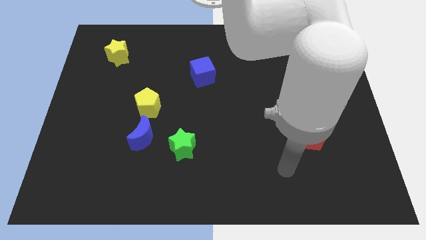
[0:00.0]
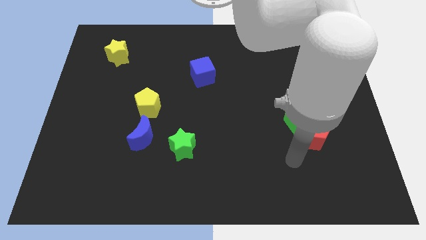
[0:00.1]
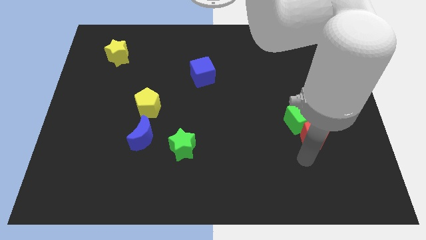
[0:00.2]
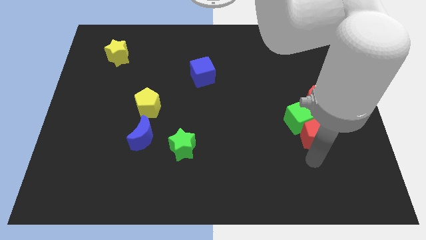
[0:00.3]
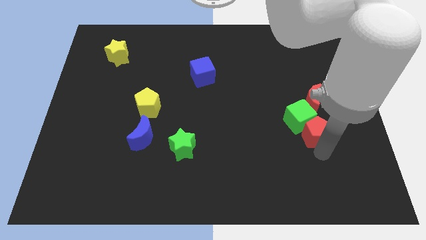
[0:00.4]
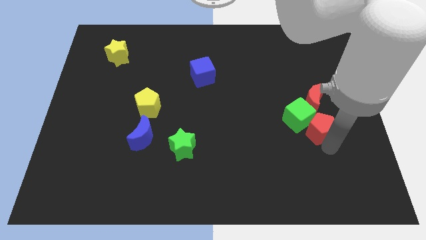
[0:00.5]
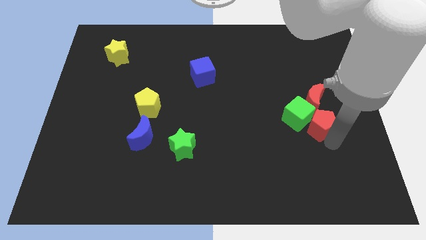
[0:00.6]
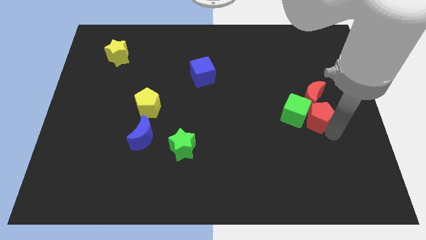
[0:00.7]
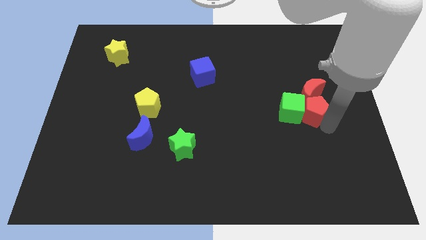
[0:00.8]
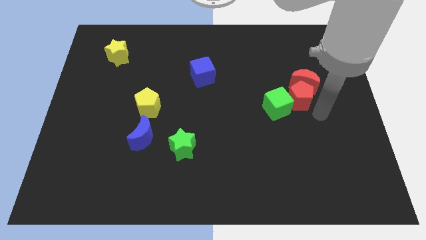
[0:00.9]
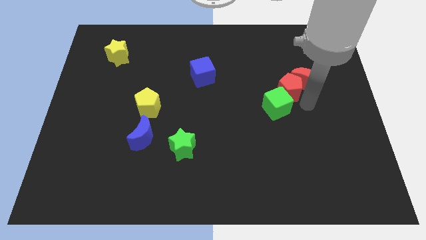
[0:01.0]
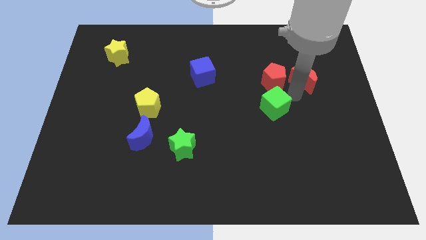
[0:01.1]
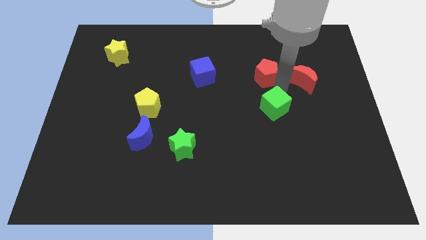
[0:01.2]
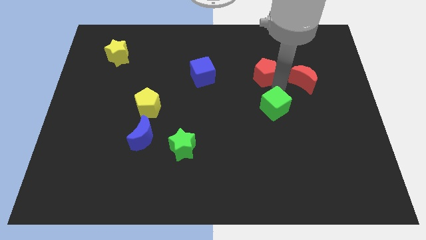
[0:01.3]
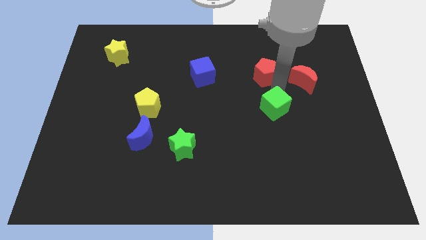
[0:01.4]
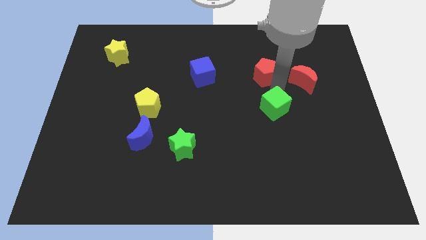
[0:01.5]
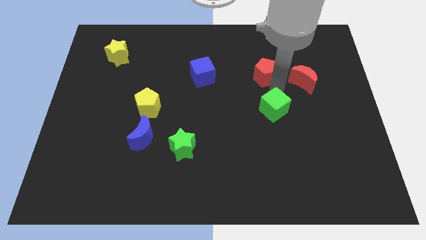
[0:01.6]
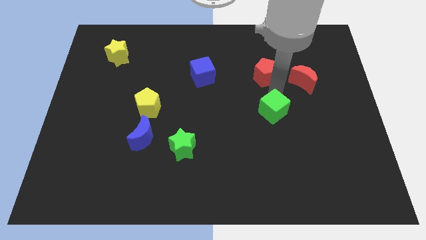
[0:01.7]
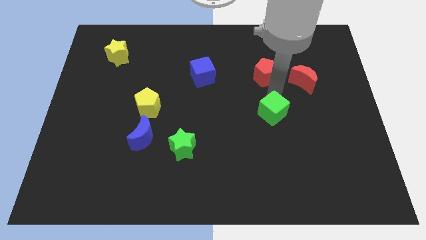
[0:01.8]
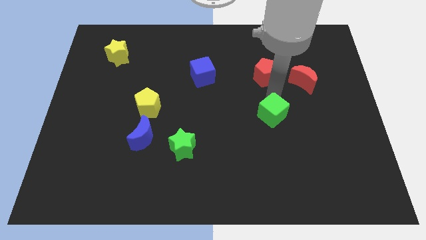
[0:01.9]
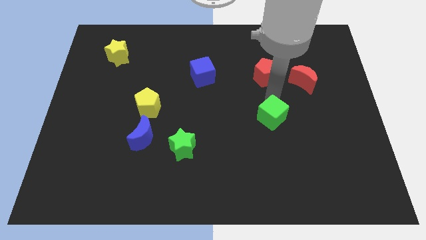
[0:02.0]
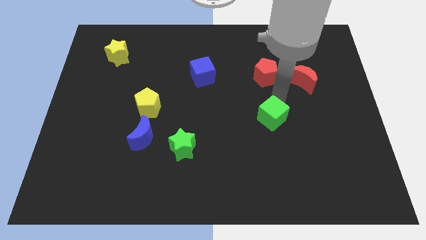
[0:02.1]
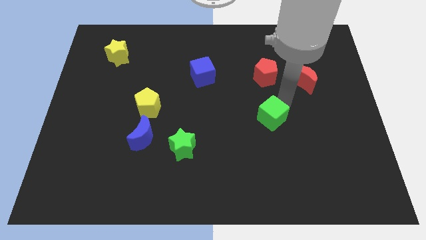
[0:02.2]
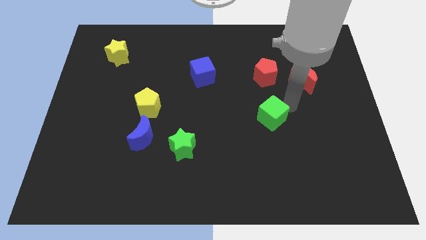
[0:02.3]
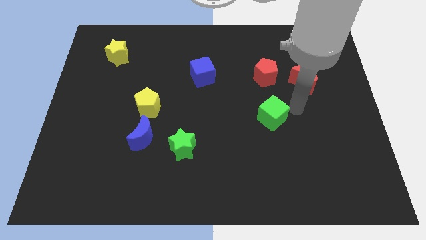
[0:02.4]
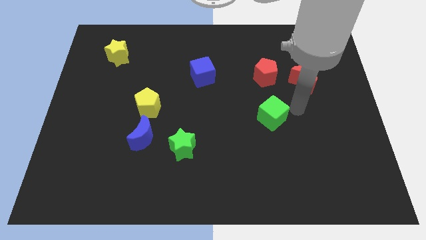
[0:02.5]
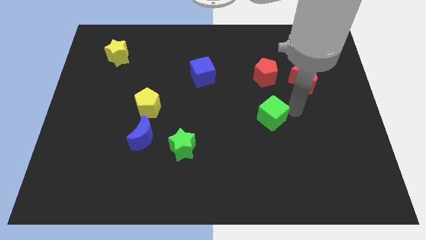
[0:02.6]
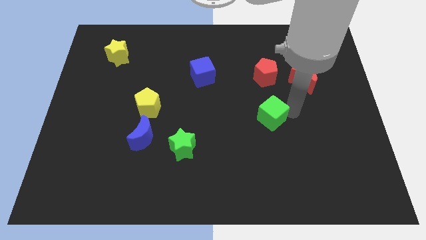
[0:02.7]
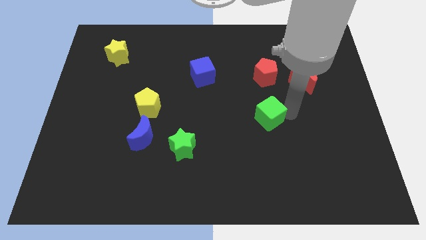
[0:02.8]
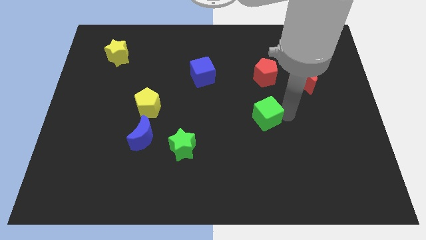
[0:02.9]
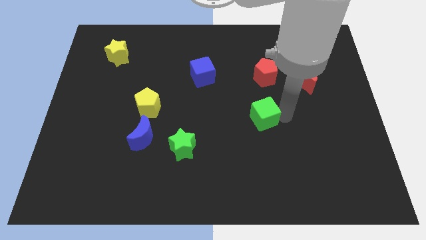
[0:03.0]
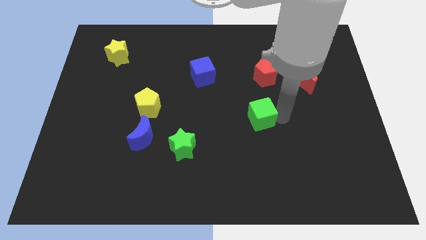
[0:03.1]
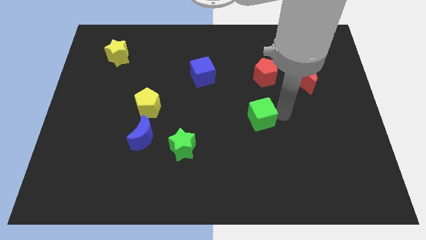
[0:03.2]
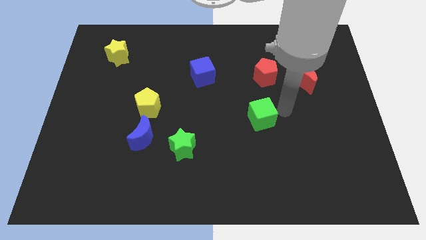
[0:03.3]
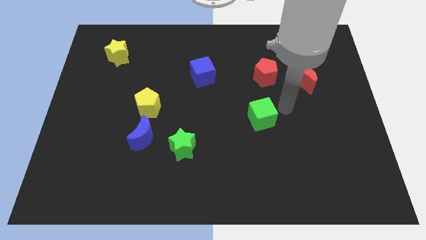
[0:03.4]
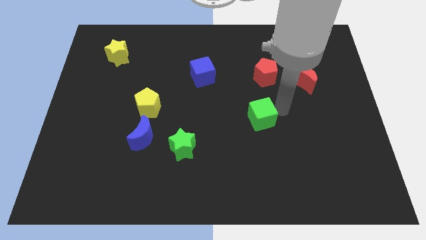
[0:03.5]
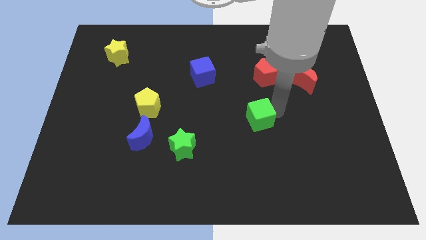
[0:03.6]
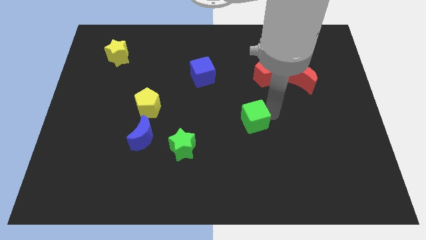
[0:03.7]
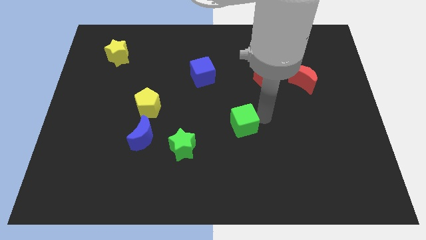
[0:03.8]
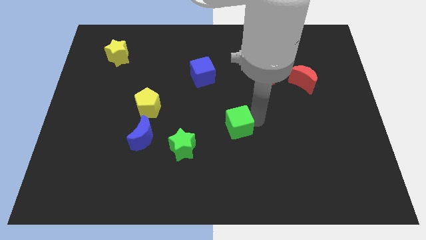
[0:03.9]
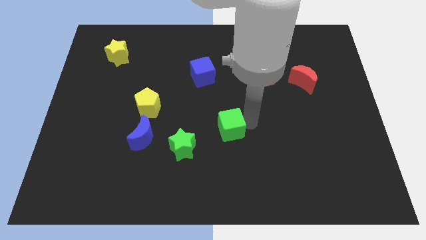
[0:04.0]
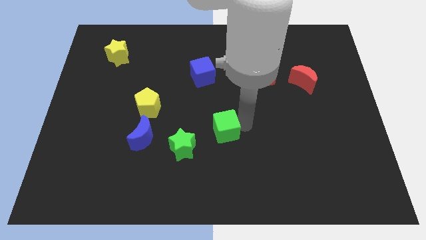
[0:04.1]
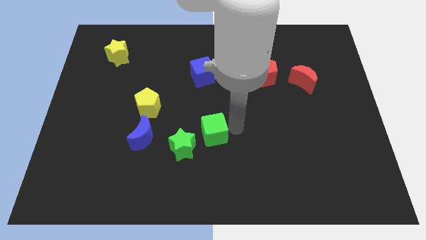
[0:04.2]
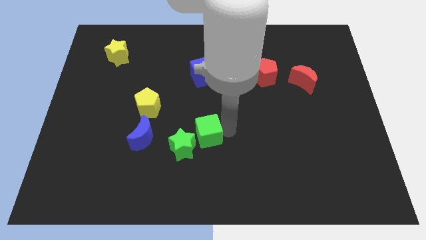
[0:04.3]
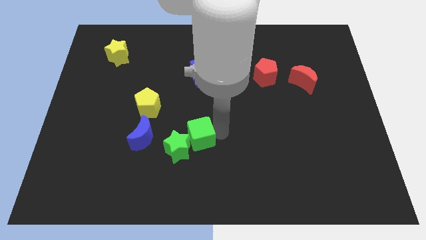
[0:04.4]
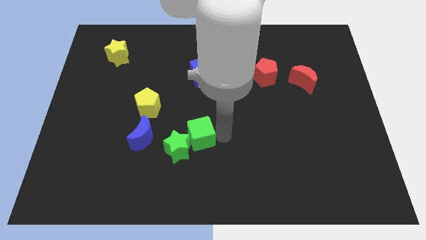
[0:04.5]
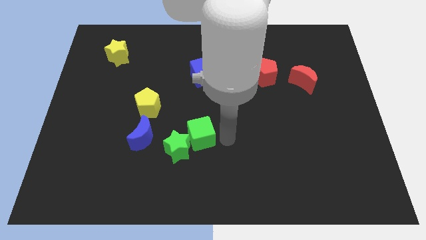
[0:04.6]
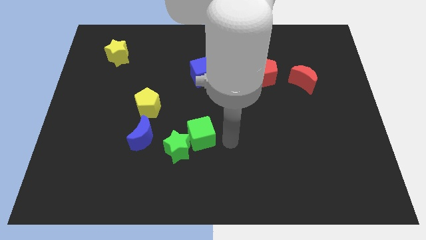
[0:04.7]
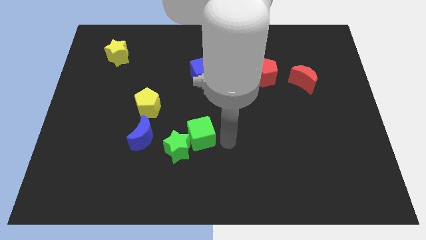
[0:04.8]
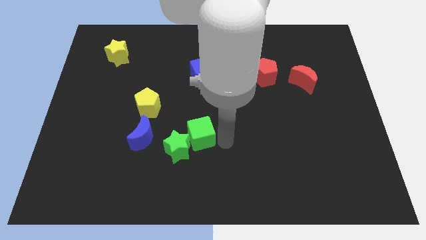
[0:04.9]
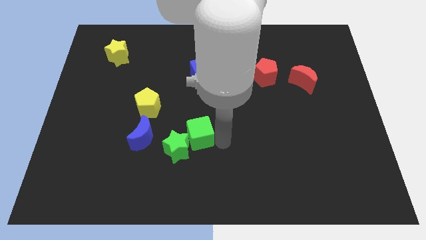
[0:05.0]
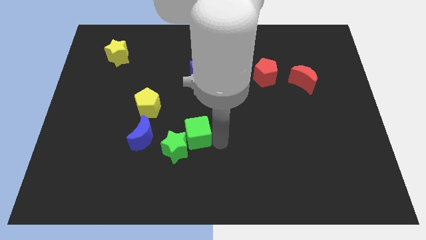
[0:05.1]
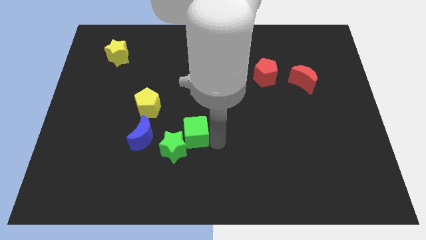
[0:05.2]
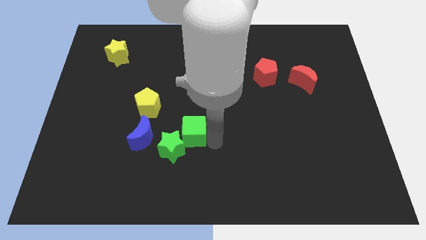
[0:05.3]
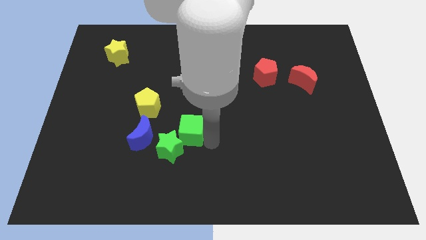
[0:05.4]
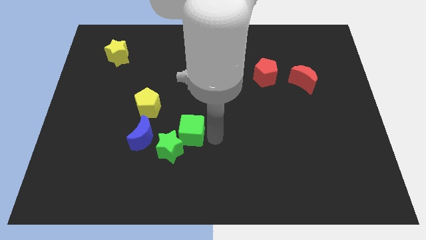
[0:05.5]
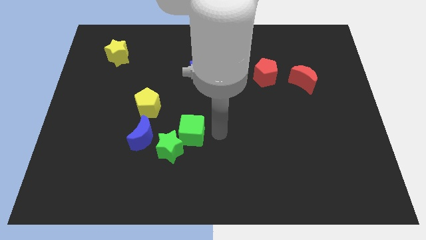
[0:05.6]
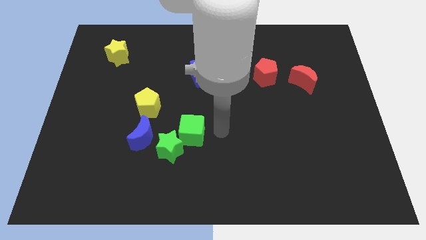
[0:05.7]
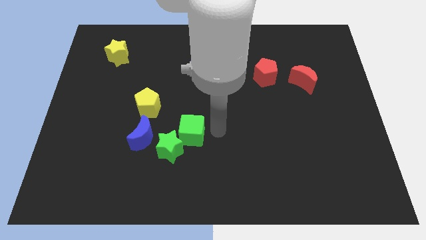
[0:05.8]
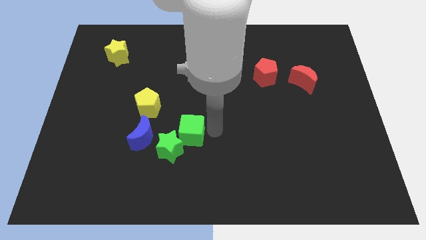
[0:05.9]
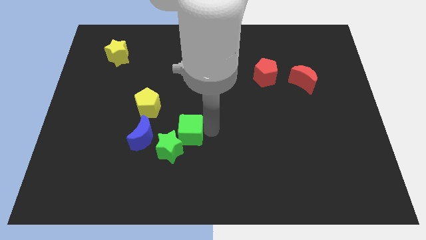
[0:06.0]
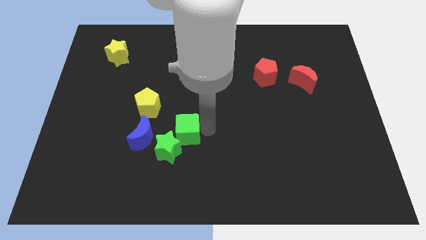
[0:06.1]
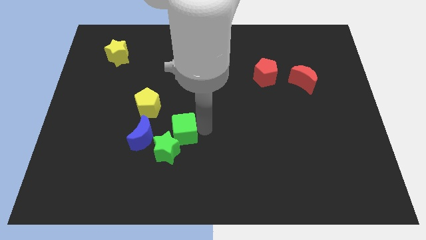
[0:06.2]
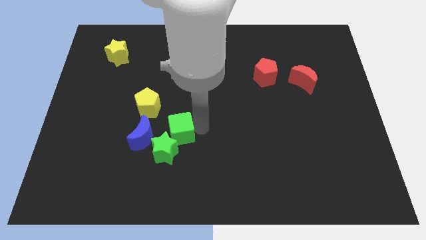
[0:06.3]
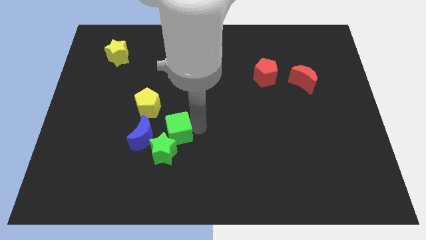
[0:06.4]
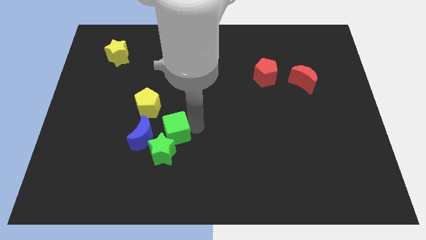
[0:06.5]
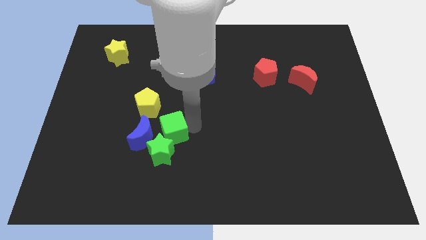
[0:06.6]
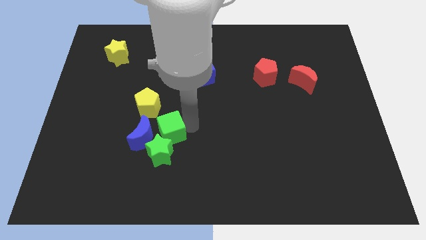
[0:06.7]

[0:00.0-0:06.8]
move the green cube close to the blue moon

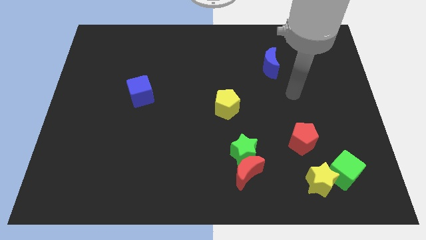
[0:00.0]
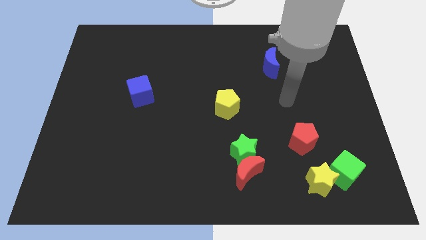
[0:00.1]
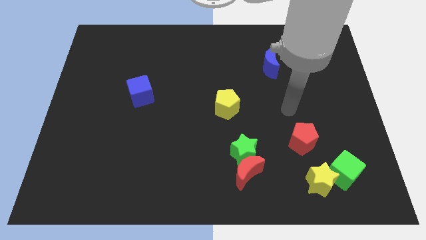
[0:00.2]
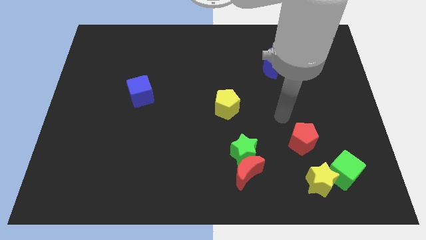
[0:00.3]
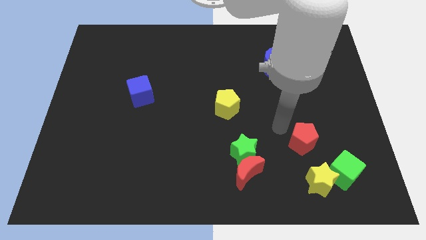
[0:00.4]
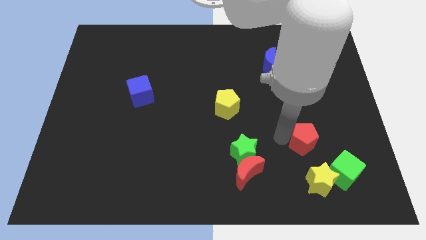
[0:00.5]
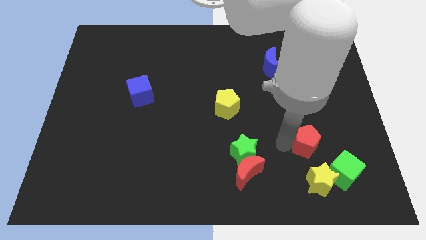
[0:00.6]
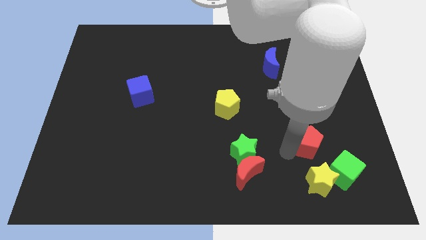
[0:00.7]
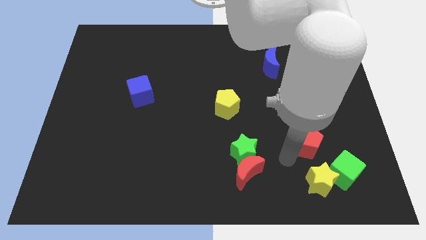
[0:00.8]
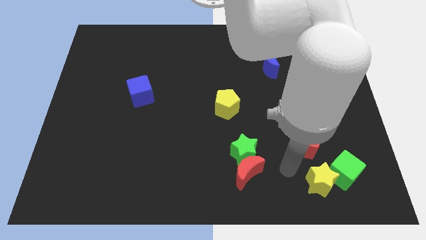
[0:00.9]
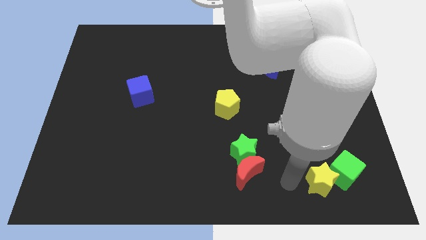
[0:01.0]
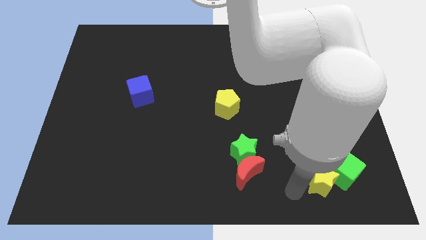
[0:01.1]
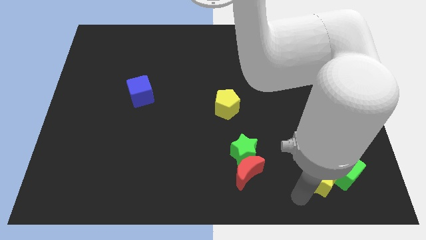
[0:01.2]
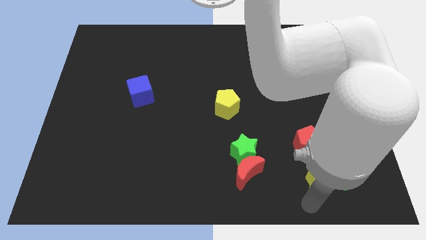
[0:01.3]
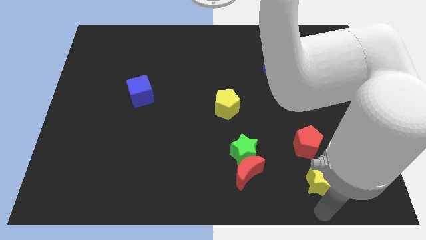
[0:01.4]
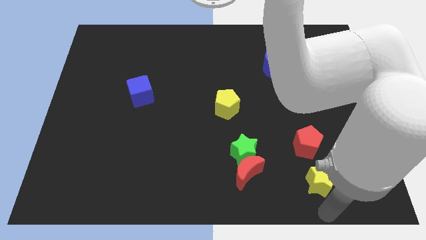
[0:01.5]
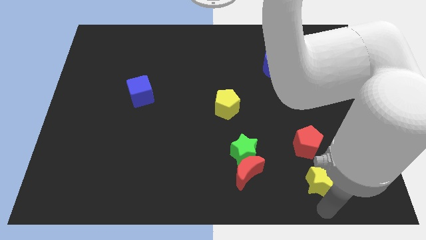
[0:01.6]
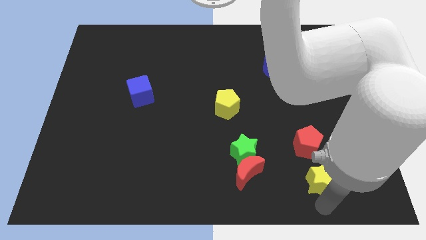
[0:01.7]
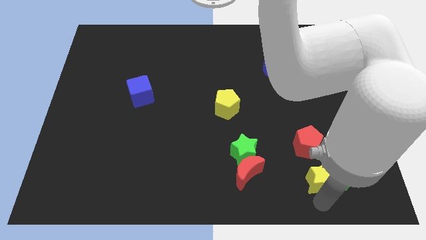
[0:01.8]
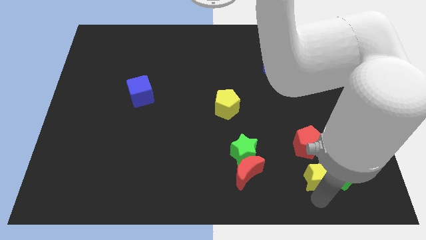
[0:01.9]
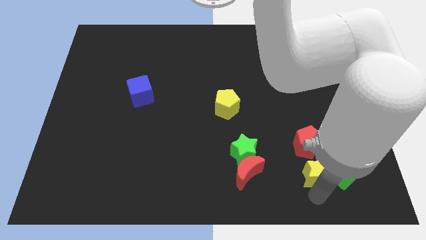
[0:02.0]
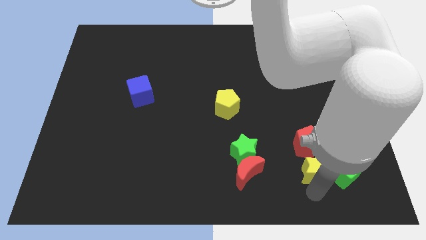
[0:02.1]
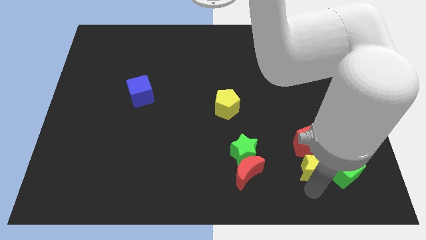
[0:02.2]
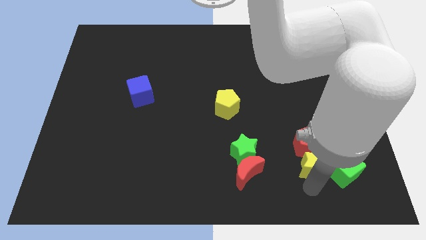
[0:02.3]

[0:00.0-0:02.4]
put the yellow star next to the red pentagon
